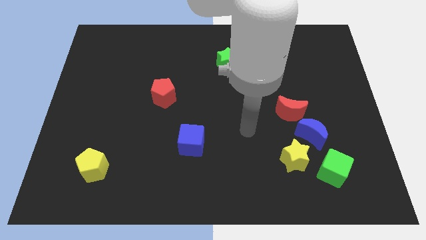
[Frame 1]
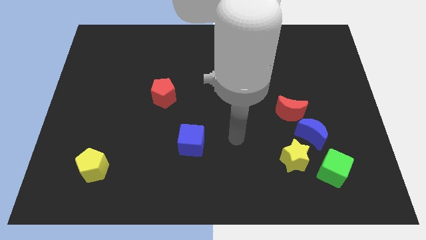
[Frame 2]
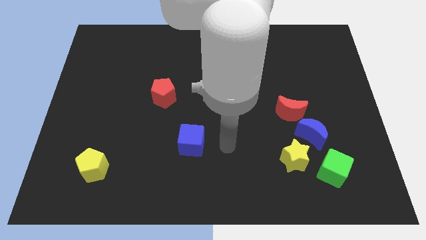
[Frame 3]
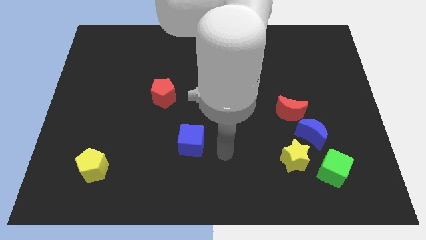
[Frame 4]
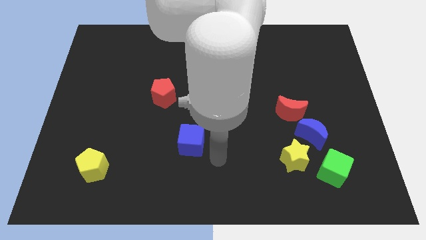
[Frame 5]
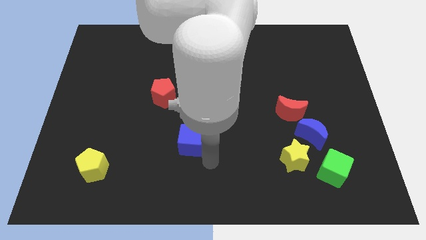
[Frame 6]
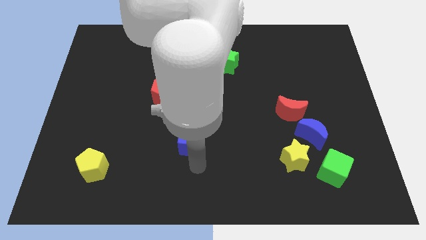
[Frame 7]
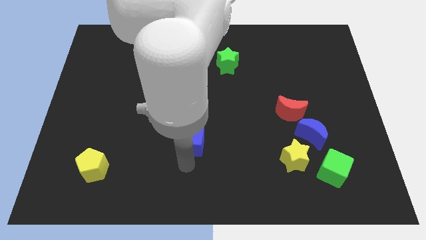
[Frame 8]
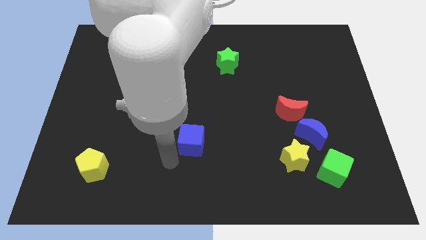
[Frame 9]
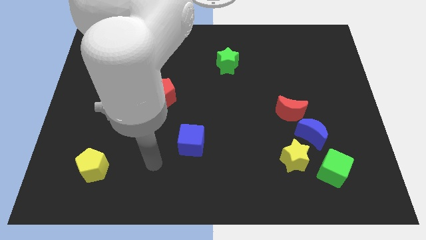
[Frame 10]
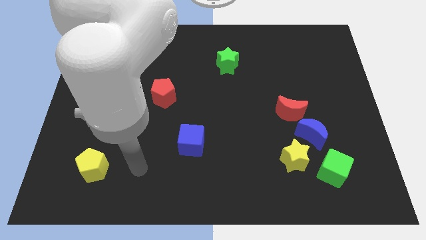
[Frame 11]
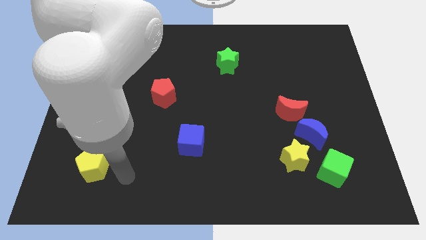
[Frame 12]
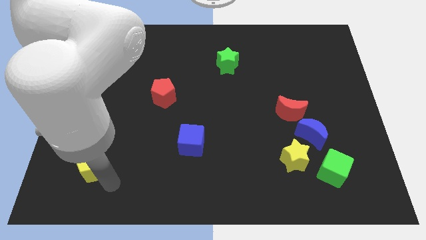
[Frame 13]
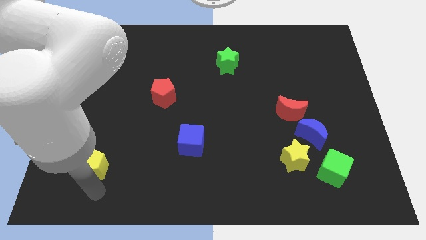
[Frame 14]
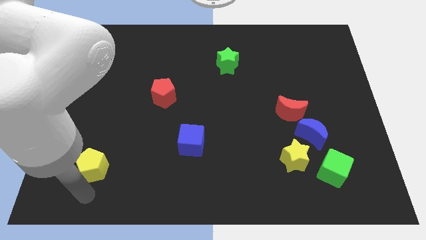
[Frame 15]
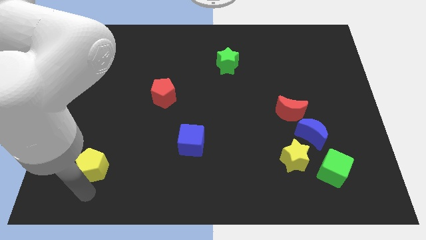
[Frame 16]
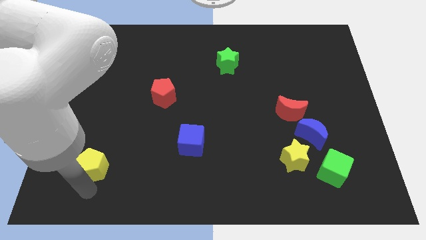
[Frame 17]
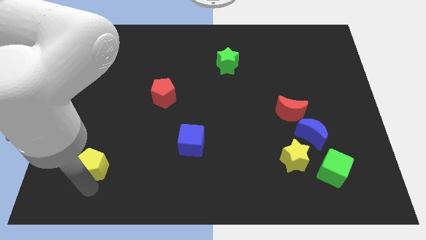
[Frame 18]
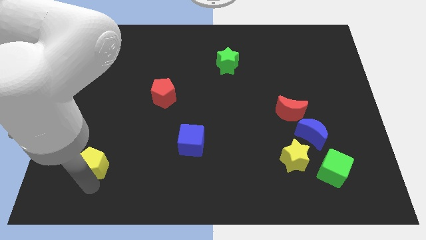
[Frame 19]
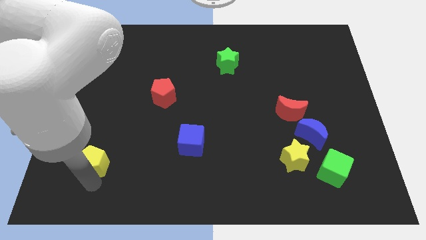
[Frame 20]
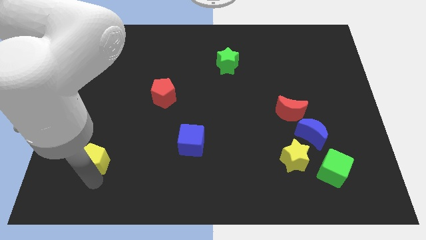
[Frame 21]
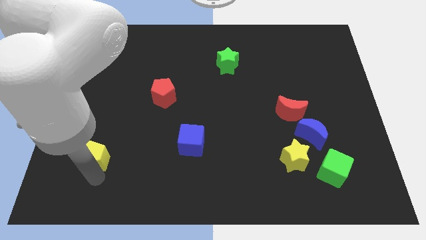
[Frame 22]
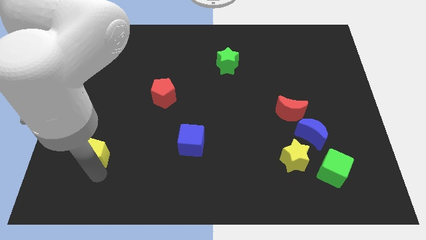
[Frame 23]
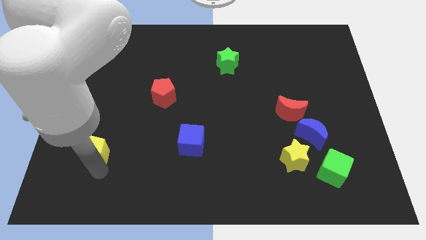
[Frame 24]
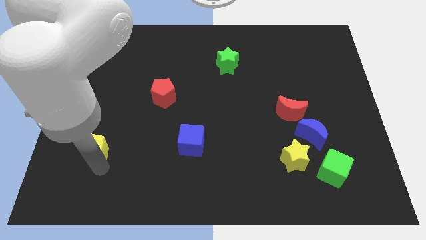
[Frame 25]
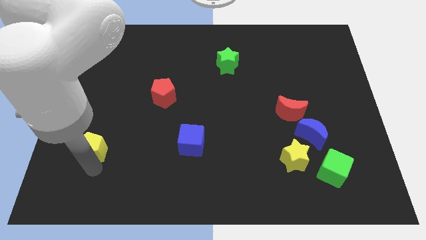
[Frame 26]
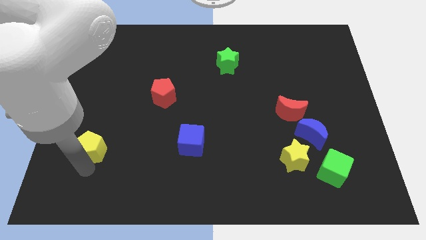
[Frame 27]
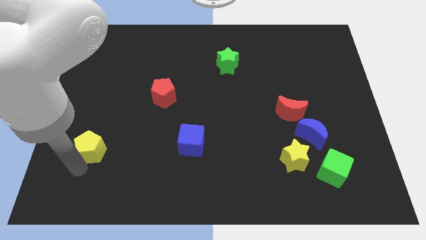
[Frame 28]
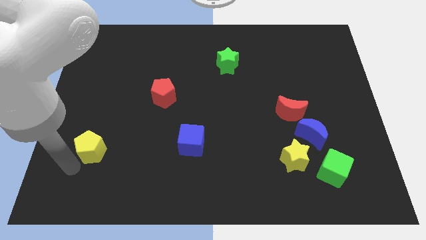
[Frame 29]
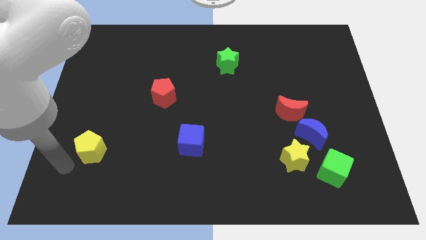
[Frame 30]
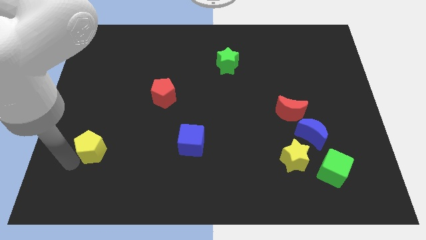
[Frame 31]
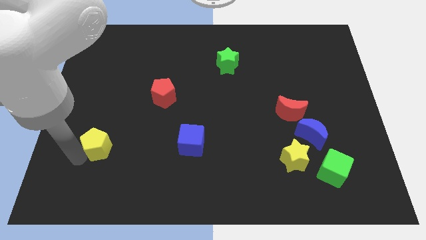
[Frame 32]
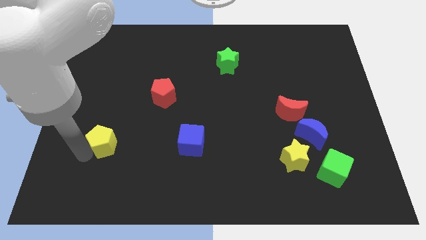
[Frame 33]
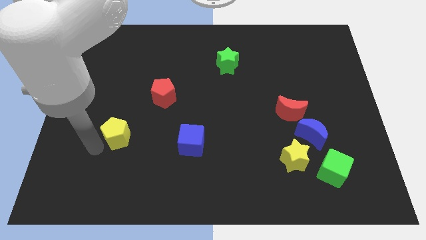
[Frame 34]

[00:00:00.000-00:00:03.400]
move the yellow pentagon slightly upwards and right diagonally

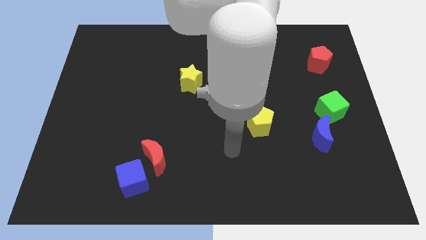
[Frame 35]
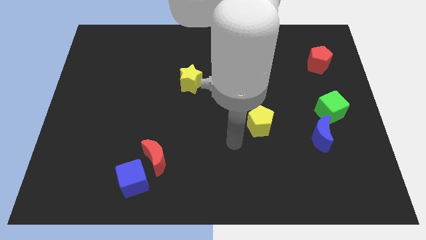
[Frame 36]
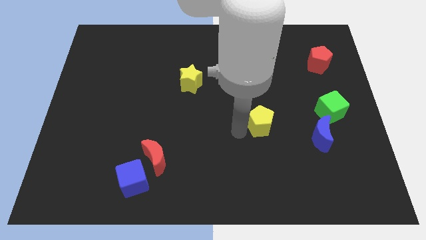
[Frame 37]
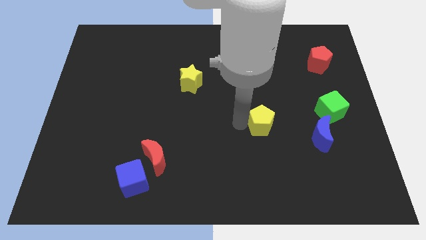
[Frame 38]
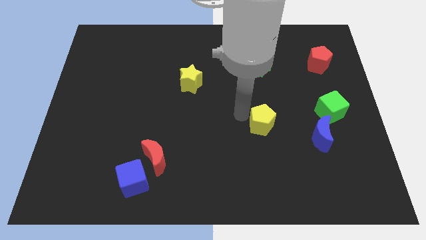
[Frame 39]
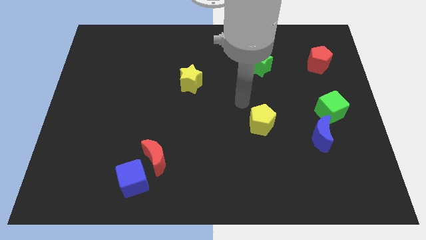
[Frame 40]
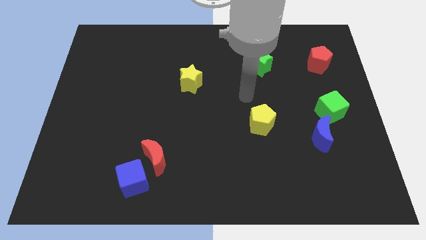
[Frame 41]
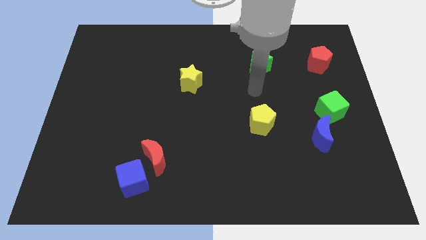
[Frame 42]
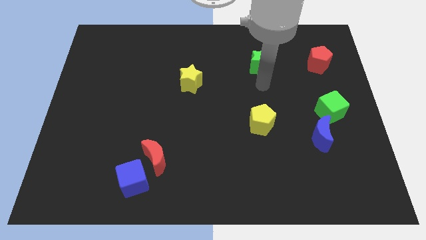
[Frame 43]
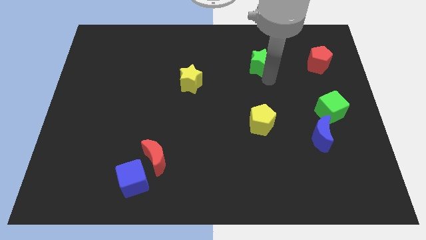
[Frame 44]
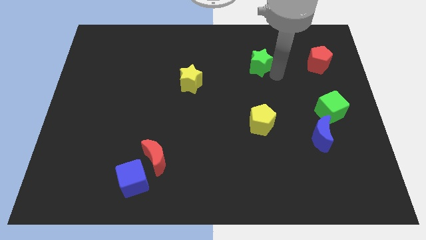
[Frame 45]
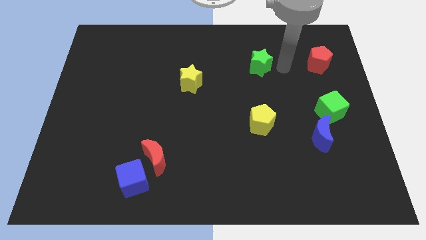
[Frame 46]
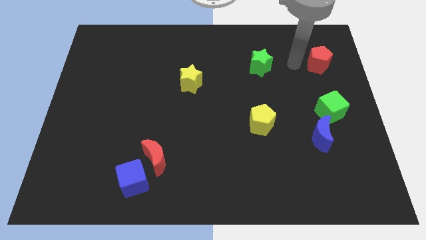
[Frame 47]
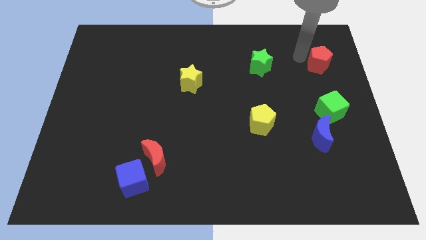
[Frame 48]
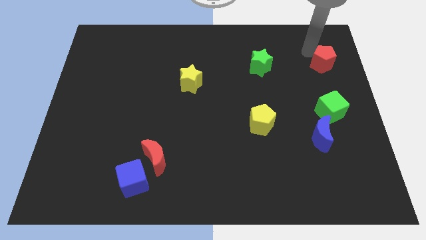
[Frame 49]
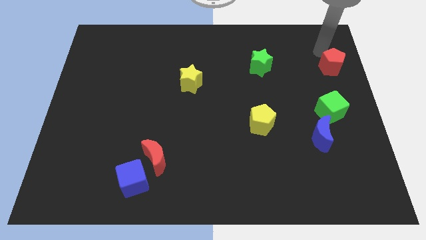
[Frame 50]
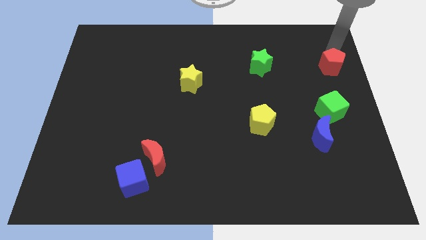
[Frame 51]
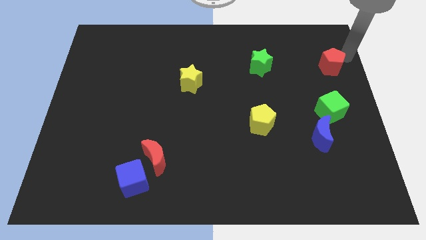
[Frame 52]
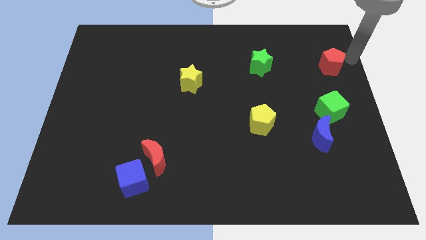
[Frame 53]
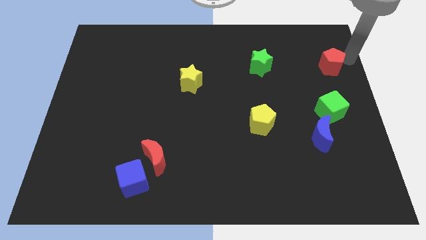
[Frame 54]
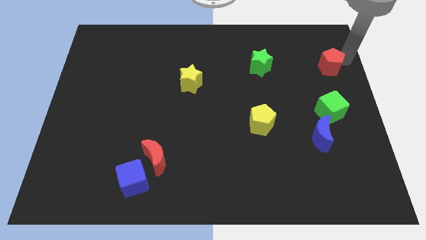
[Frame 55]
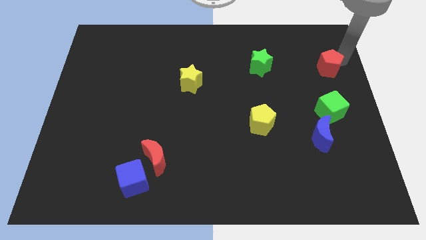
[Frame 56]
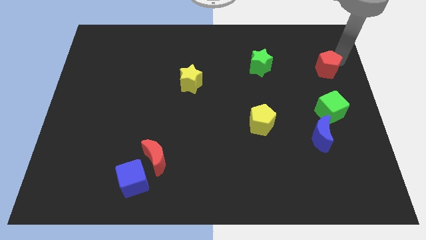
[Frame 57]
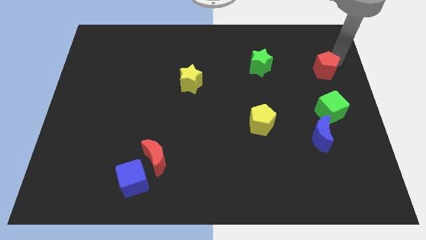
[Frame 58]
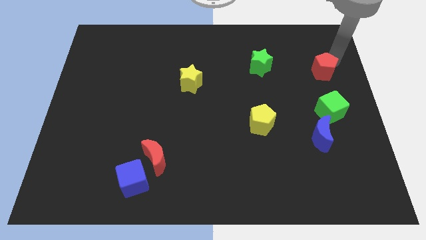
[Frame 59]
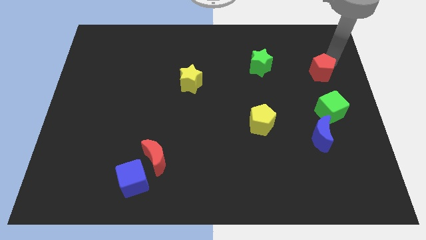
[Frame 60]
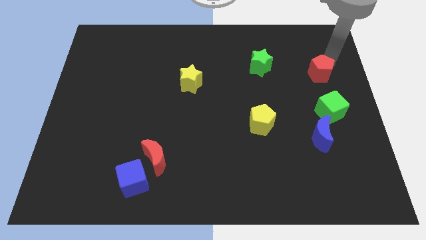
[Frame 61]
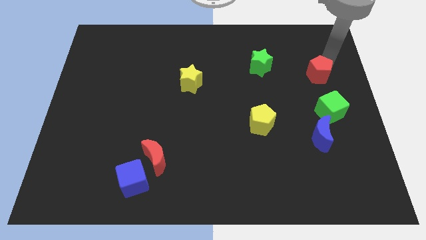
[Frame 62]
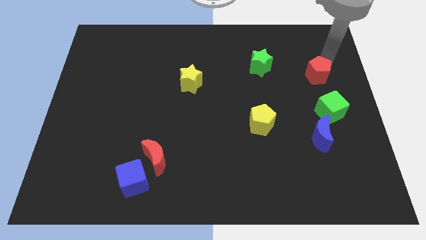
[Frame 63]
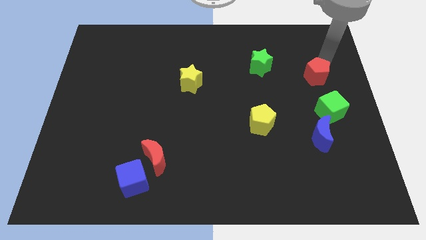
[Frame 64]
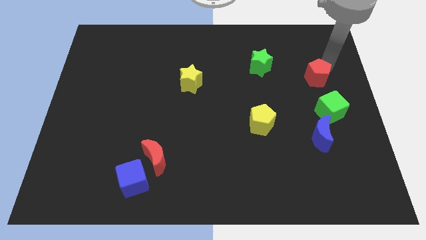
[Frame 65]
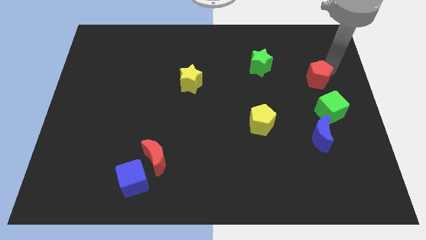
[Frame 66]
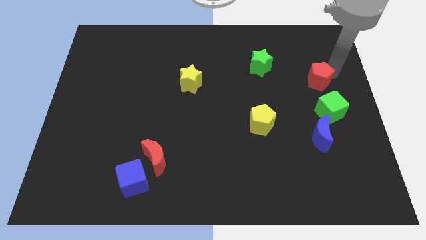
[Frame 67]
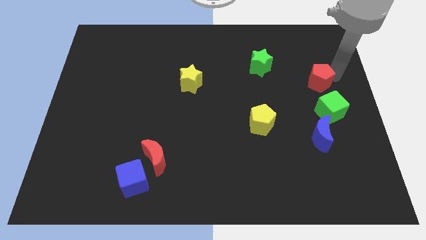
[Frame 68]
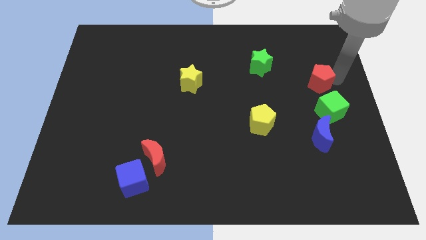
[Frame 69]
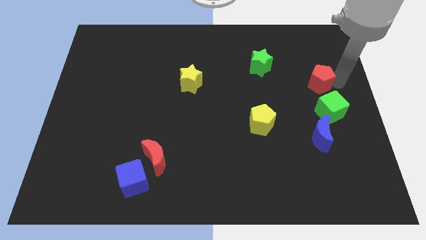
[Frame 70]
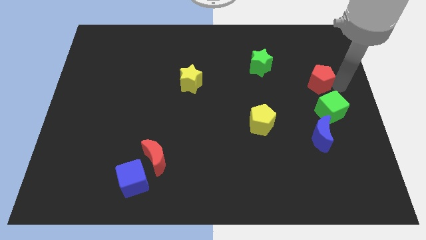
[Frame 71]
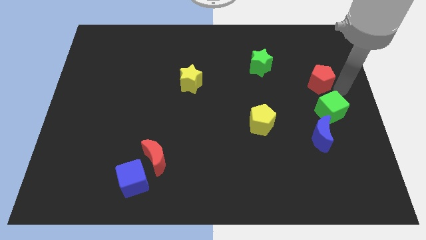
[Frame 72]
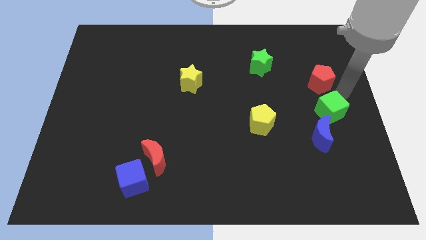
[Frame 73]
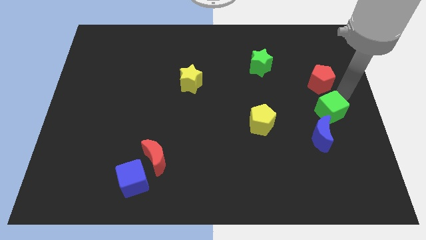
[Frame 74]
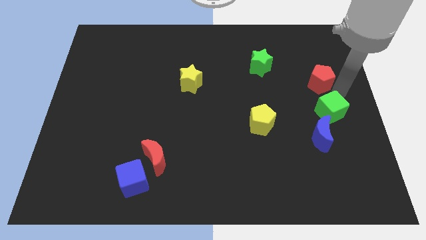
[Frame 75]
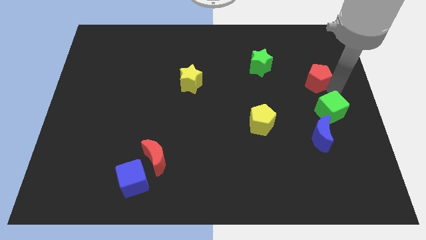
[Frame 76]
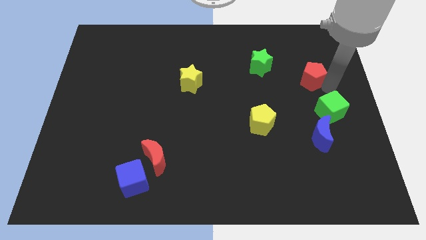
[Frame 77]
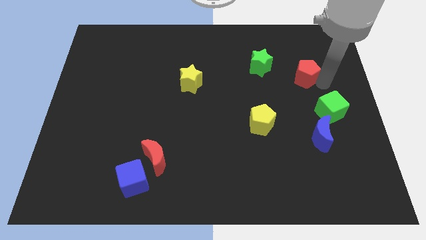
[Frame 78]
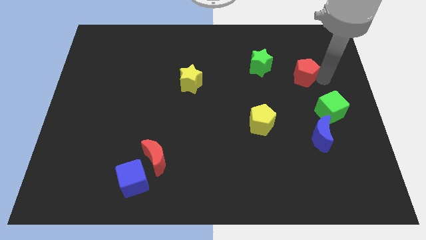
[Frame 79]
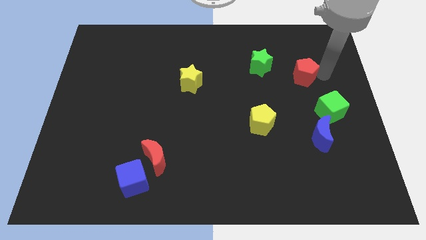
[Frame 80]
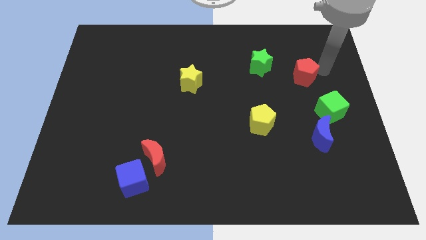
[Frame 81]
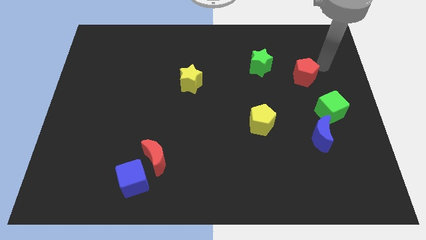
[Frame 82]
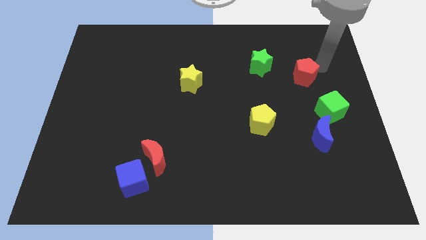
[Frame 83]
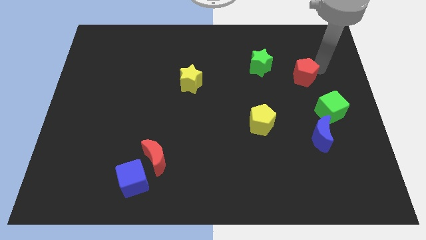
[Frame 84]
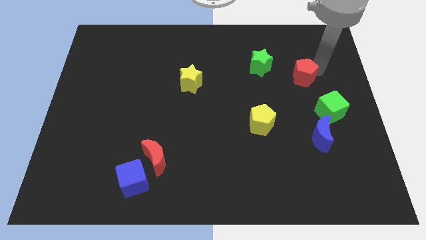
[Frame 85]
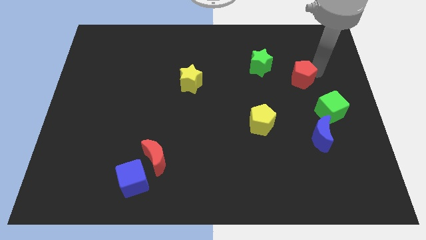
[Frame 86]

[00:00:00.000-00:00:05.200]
slide the red pentagon down and to the left diagonally a little bit
